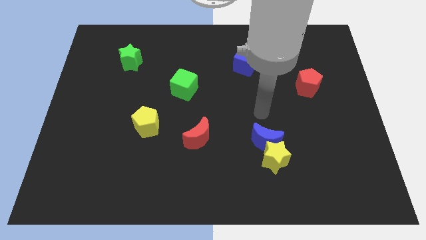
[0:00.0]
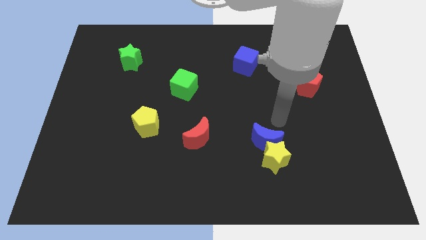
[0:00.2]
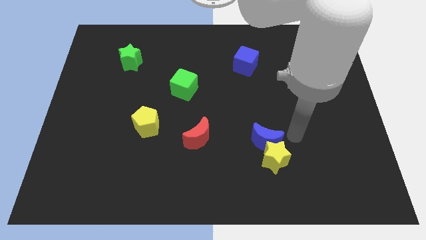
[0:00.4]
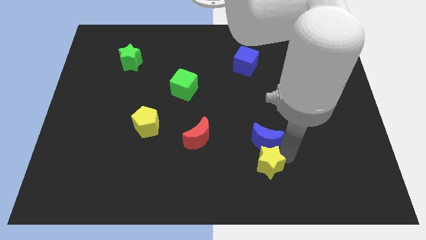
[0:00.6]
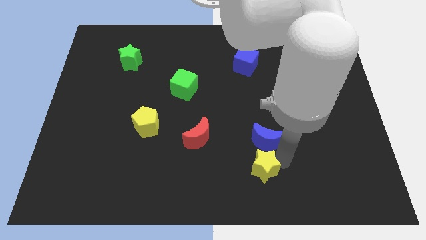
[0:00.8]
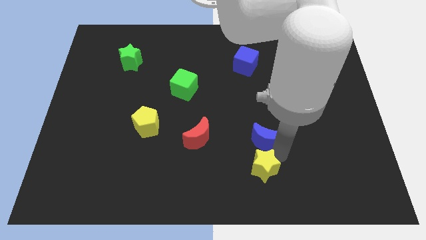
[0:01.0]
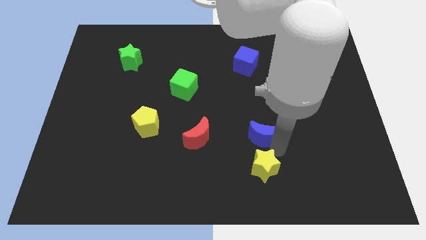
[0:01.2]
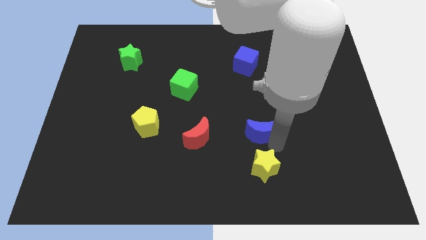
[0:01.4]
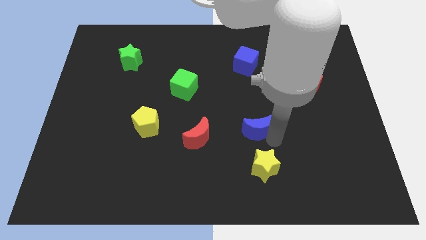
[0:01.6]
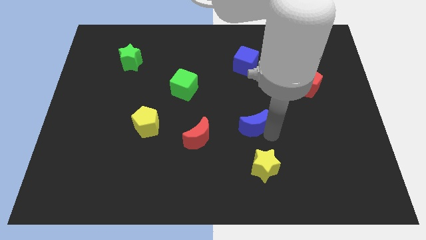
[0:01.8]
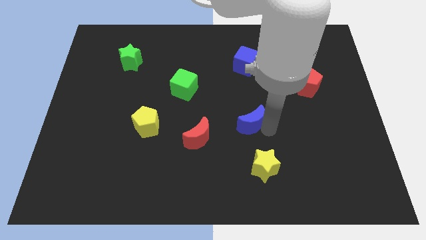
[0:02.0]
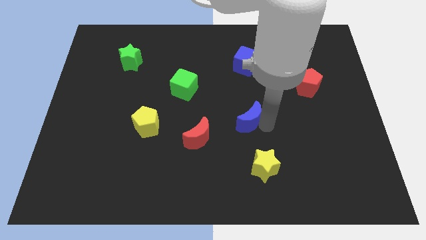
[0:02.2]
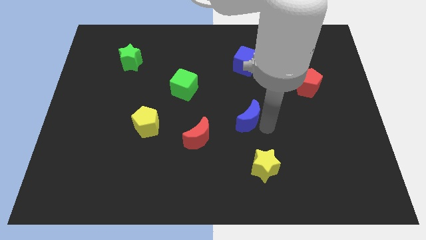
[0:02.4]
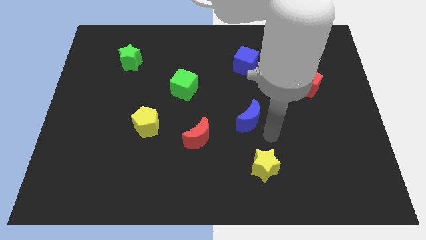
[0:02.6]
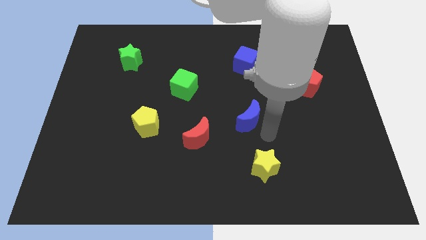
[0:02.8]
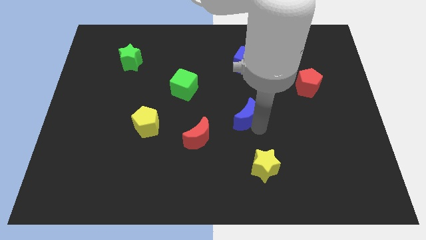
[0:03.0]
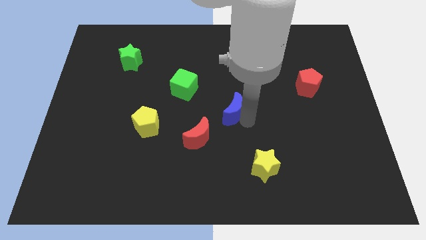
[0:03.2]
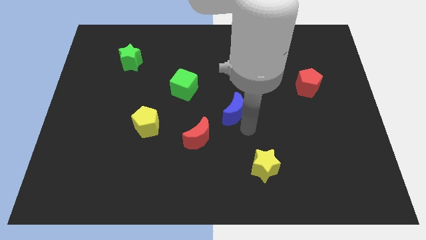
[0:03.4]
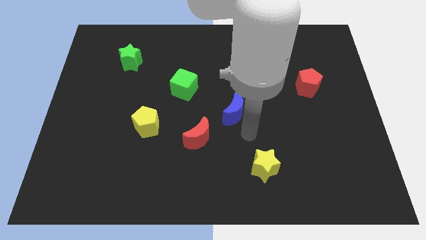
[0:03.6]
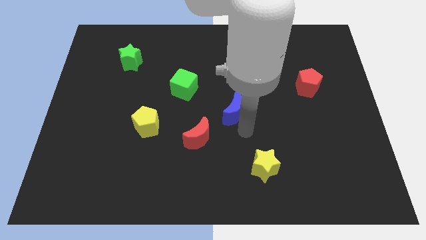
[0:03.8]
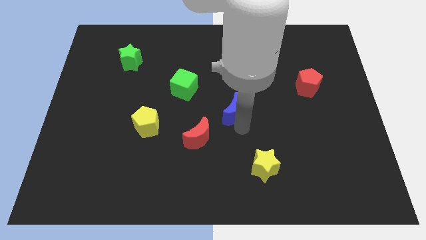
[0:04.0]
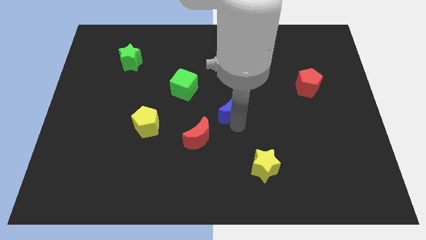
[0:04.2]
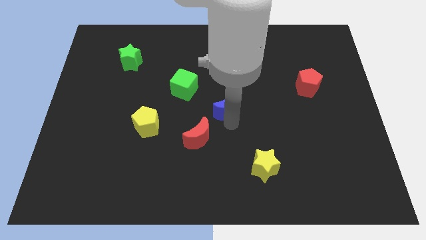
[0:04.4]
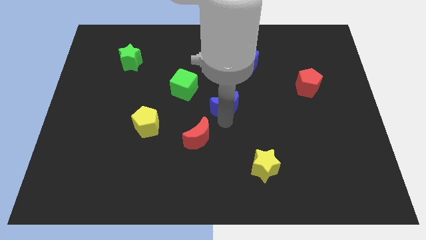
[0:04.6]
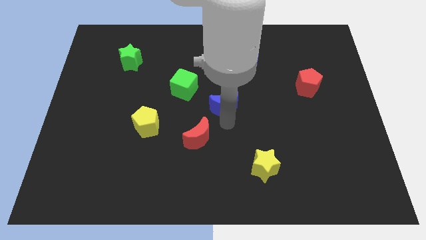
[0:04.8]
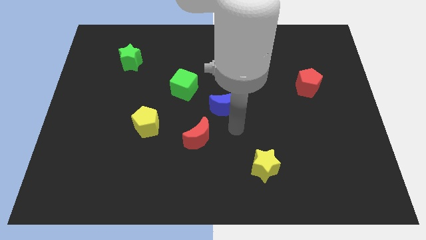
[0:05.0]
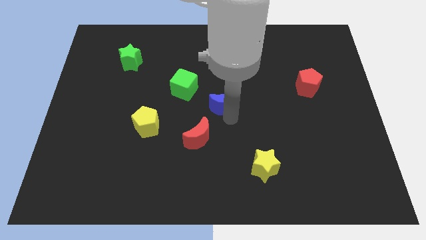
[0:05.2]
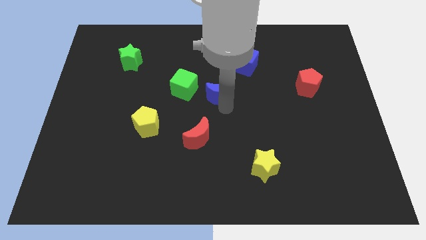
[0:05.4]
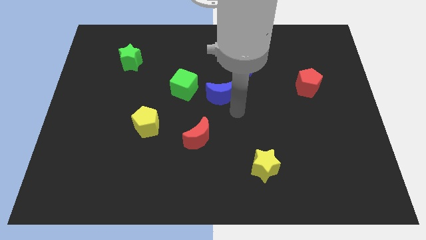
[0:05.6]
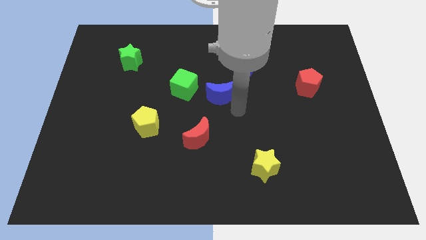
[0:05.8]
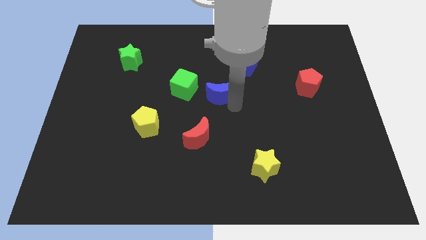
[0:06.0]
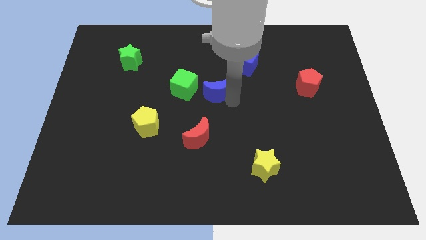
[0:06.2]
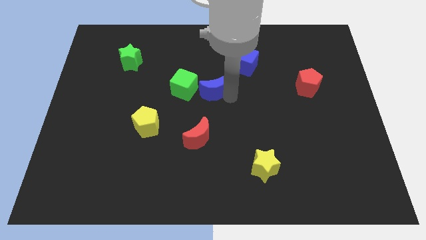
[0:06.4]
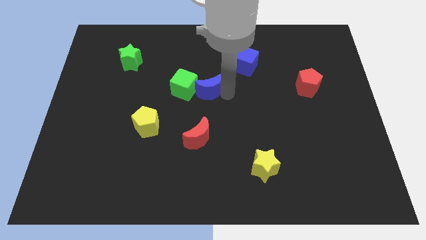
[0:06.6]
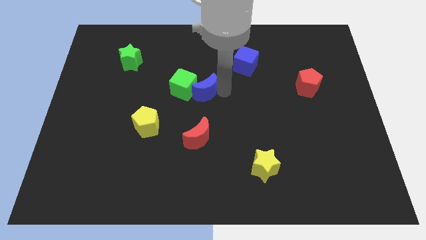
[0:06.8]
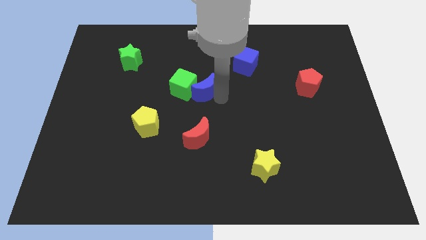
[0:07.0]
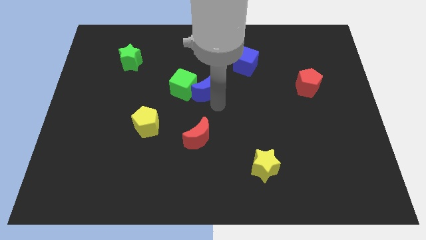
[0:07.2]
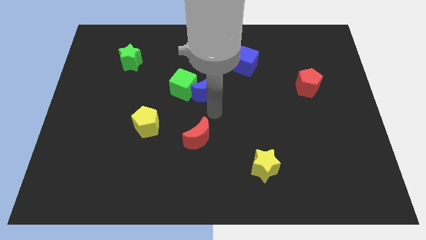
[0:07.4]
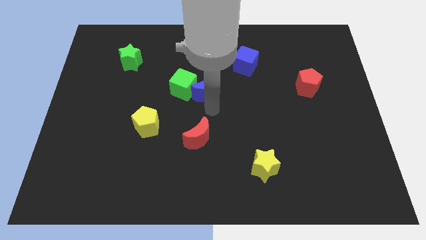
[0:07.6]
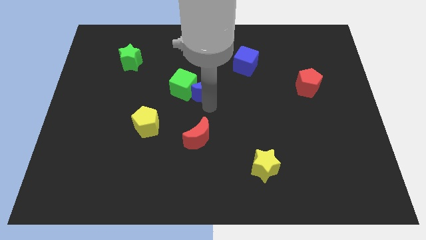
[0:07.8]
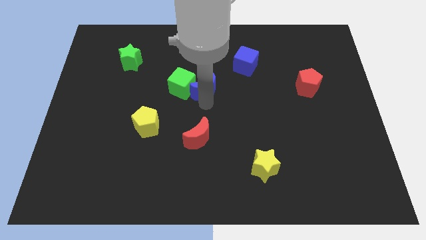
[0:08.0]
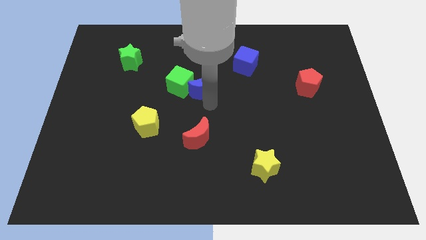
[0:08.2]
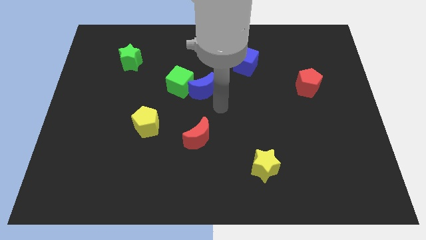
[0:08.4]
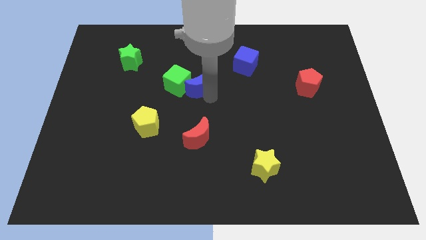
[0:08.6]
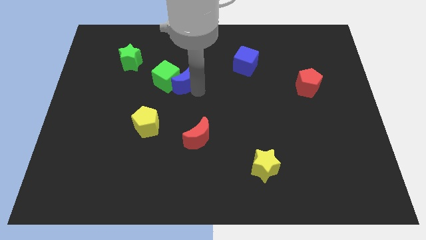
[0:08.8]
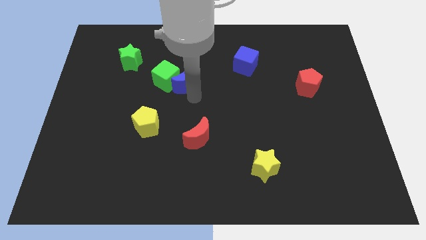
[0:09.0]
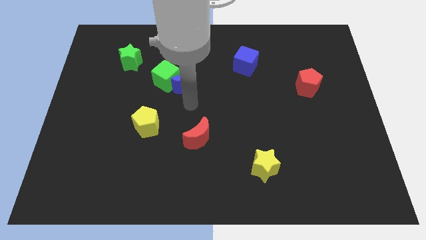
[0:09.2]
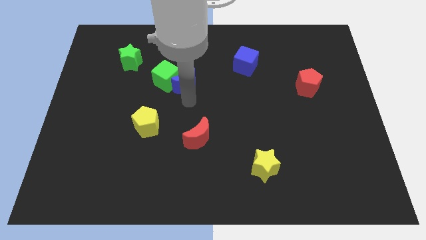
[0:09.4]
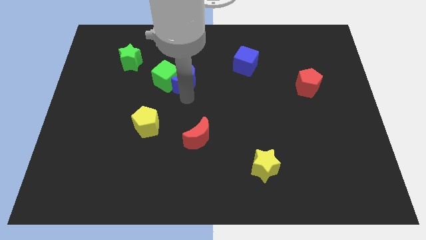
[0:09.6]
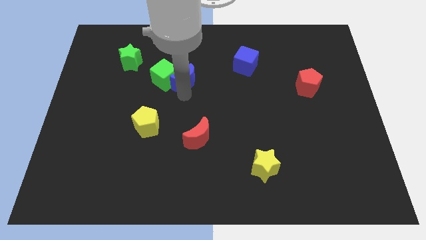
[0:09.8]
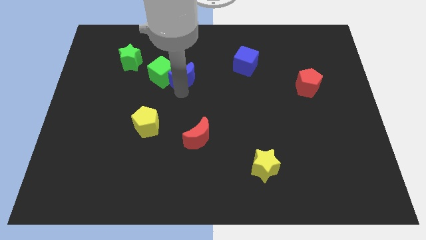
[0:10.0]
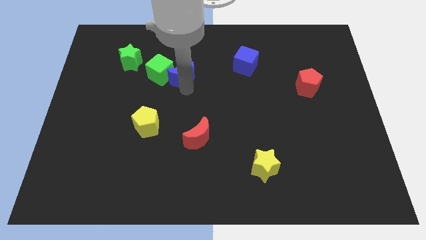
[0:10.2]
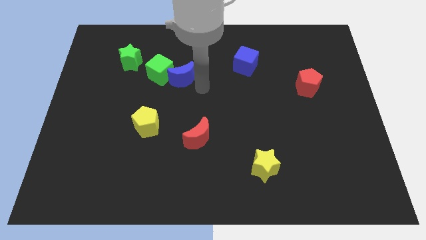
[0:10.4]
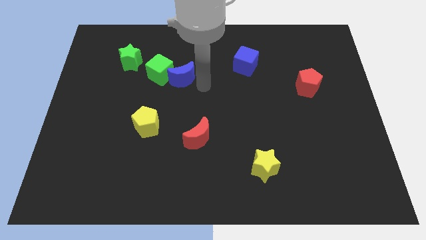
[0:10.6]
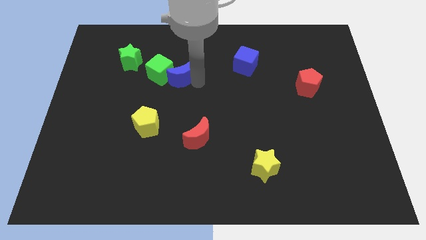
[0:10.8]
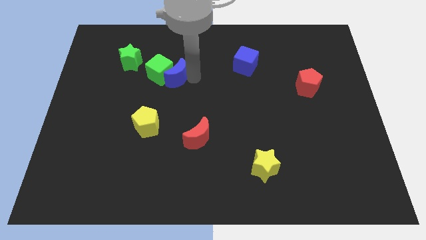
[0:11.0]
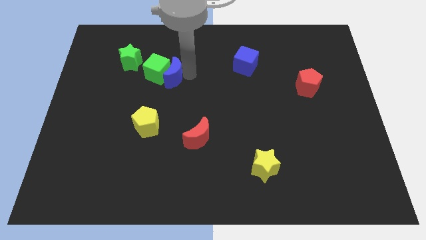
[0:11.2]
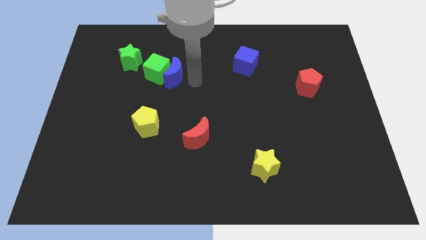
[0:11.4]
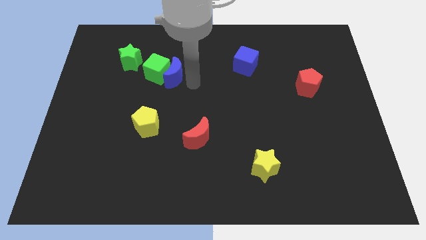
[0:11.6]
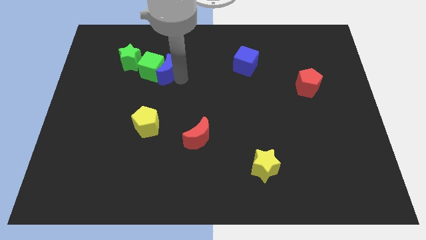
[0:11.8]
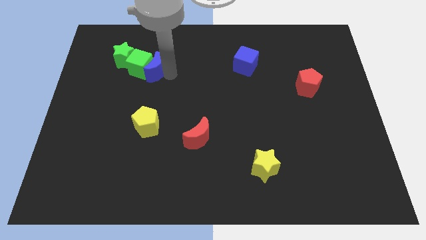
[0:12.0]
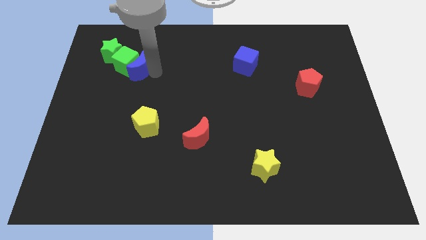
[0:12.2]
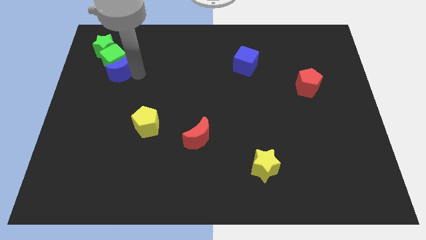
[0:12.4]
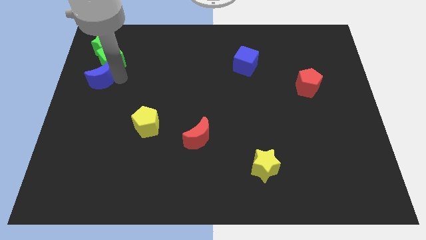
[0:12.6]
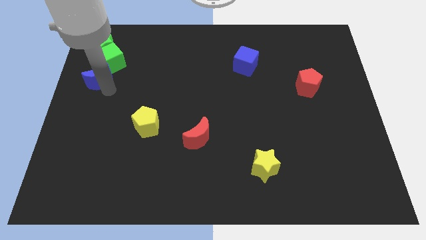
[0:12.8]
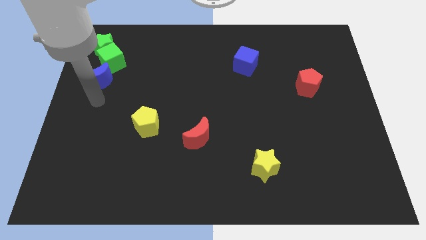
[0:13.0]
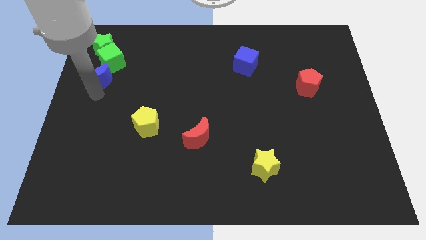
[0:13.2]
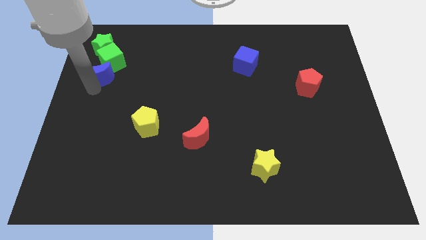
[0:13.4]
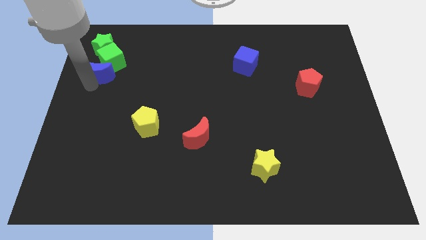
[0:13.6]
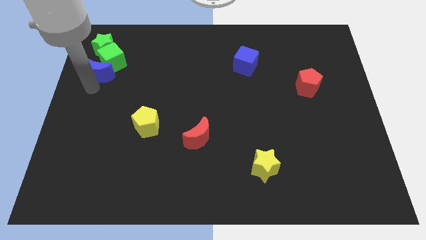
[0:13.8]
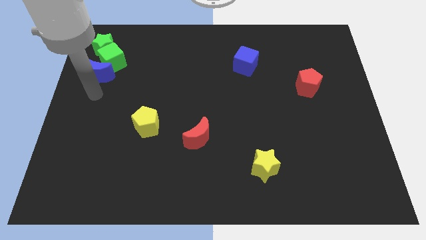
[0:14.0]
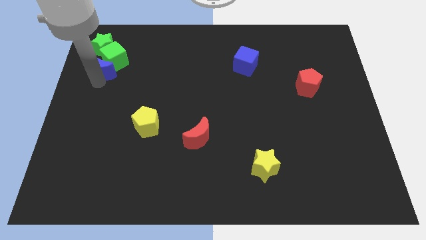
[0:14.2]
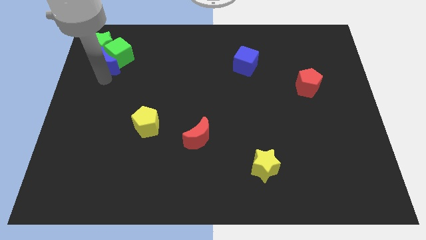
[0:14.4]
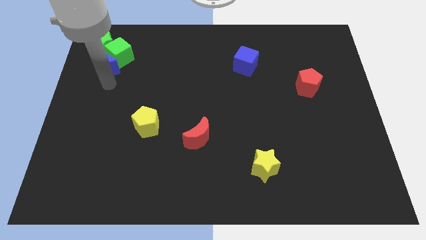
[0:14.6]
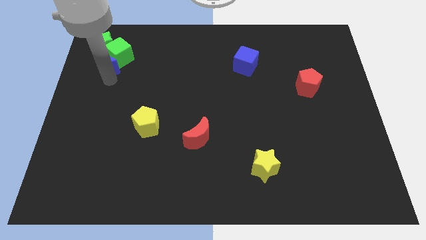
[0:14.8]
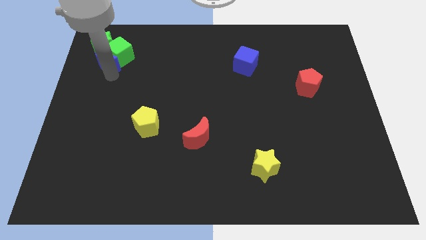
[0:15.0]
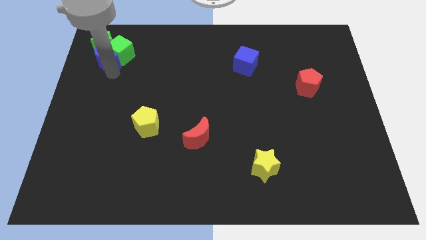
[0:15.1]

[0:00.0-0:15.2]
slide the blue moon next to the green star
